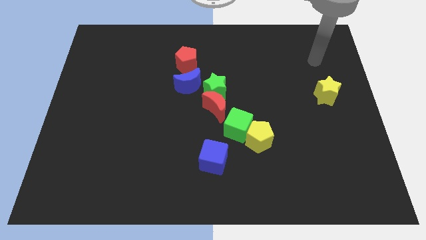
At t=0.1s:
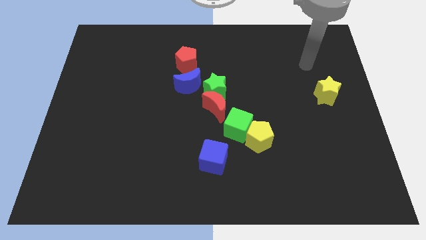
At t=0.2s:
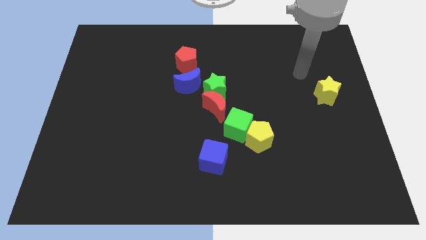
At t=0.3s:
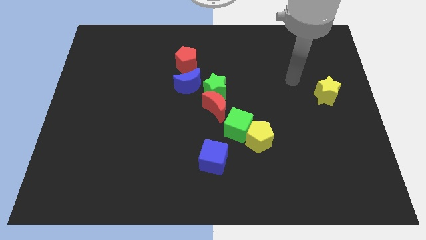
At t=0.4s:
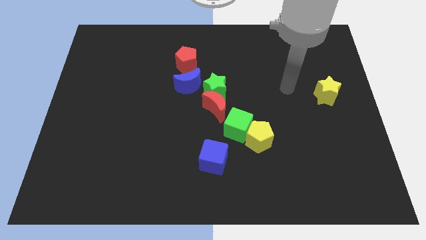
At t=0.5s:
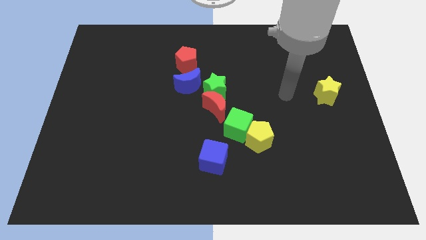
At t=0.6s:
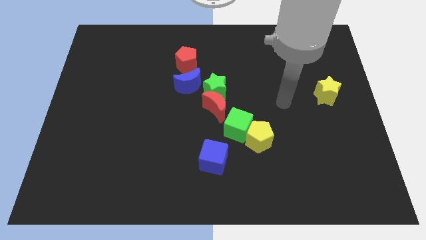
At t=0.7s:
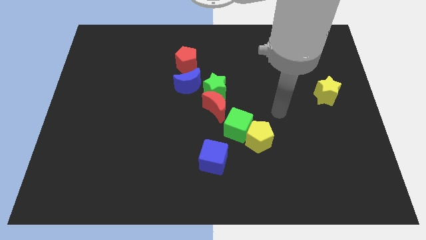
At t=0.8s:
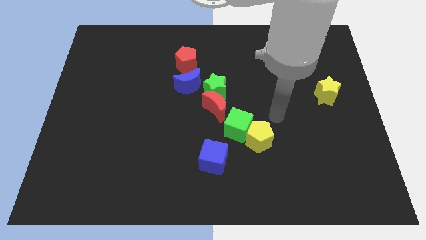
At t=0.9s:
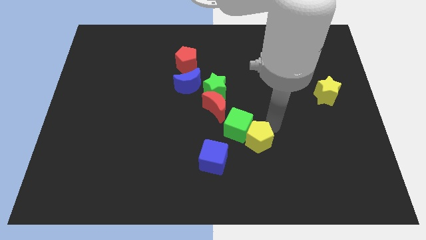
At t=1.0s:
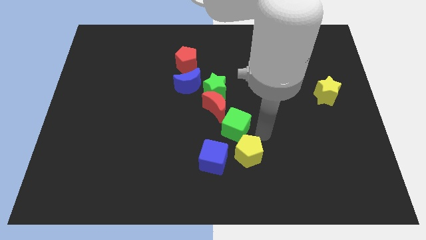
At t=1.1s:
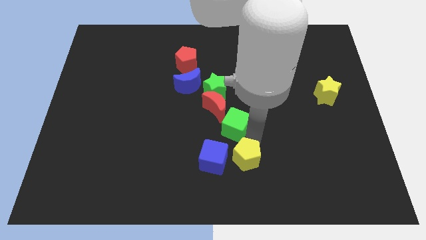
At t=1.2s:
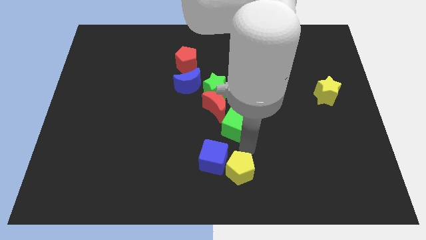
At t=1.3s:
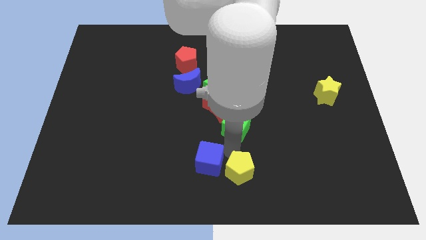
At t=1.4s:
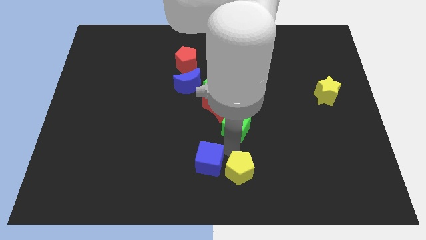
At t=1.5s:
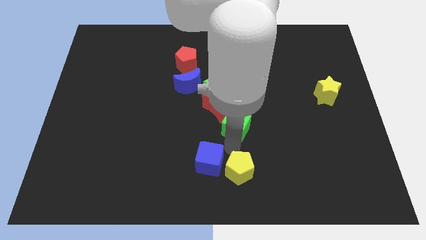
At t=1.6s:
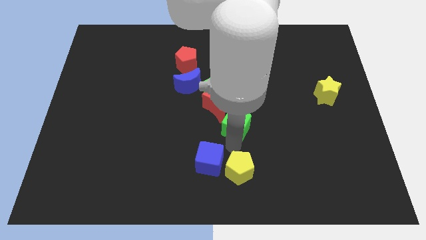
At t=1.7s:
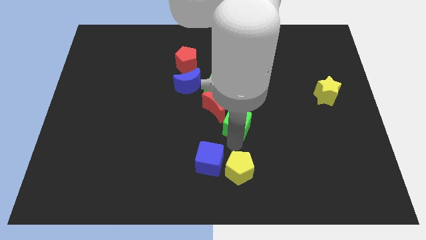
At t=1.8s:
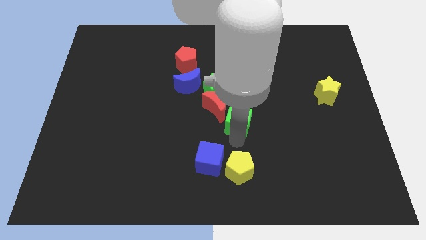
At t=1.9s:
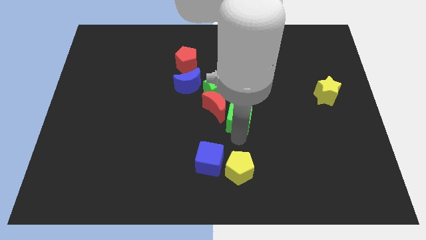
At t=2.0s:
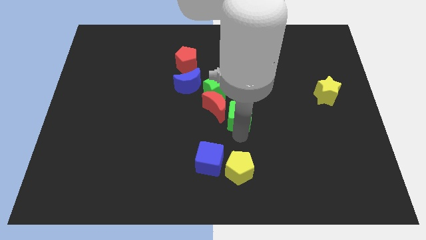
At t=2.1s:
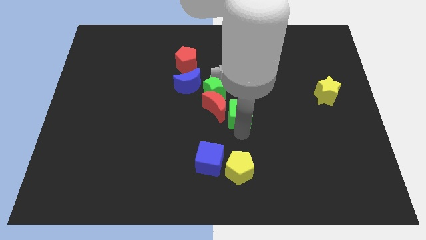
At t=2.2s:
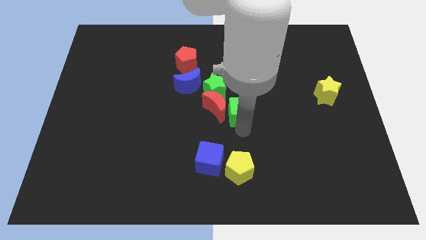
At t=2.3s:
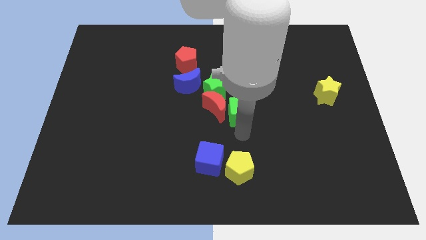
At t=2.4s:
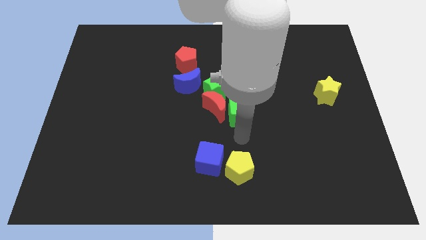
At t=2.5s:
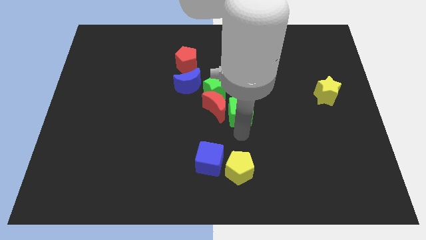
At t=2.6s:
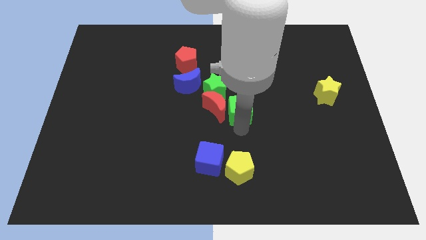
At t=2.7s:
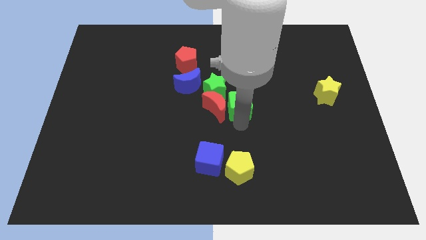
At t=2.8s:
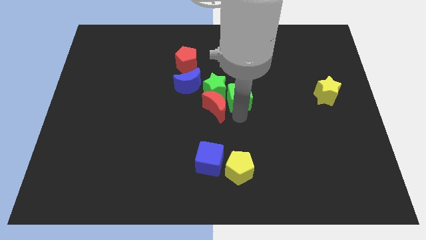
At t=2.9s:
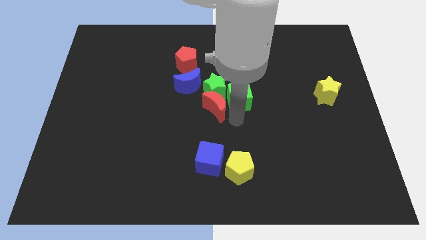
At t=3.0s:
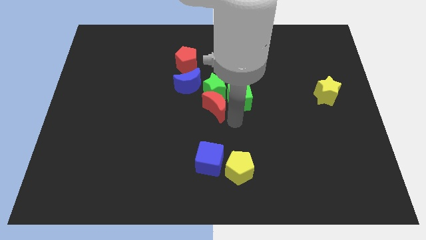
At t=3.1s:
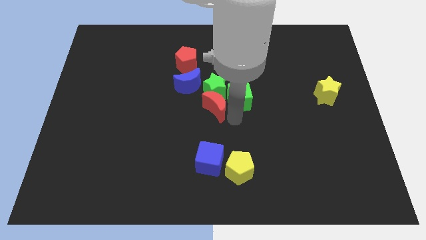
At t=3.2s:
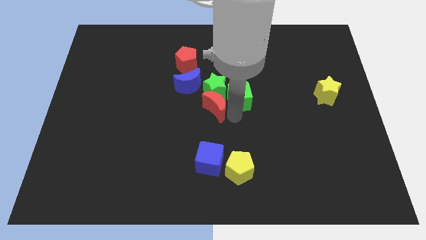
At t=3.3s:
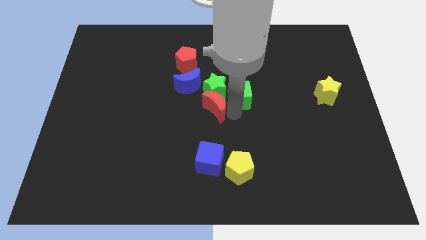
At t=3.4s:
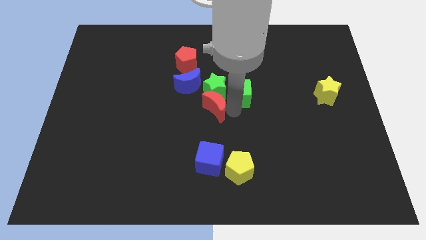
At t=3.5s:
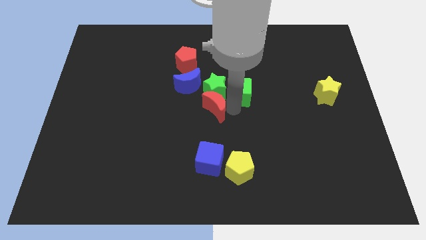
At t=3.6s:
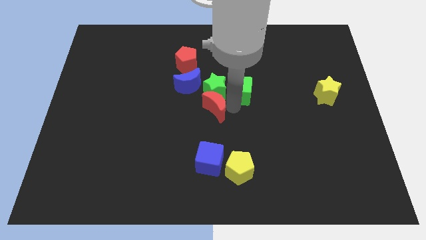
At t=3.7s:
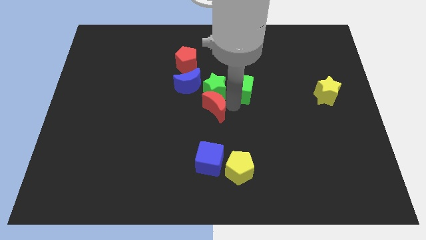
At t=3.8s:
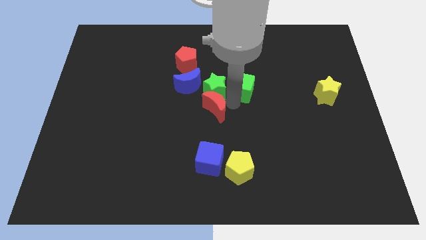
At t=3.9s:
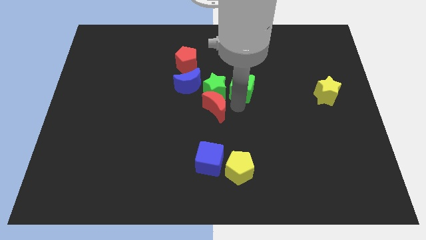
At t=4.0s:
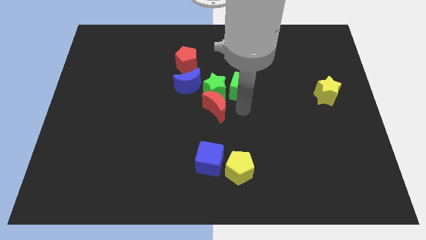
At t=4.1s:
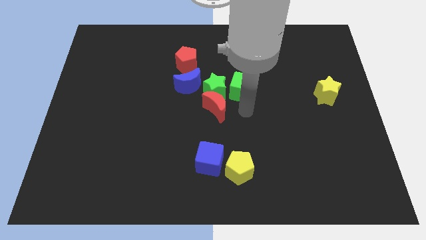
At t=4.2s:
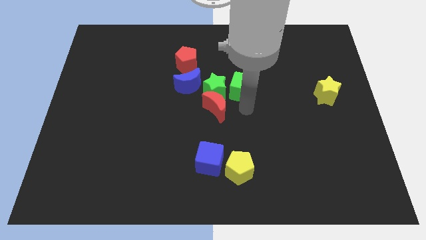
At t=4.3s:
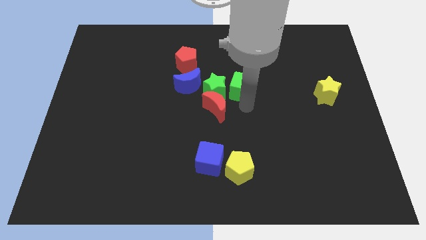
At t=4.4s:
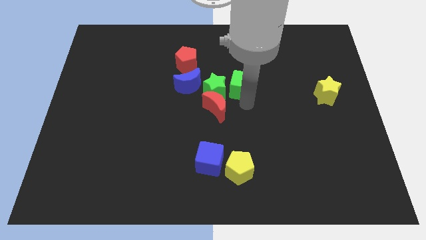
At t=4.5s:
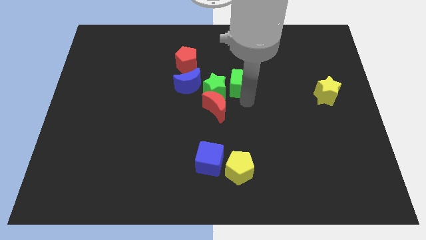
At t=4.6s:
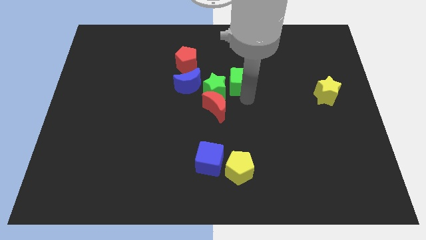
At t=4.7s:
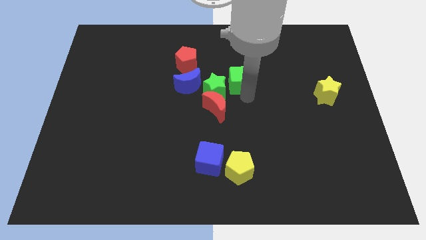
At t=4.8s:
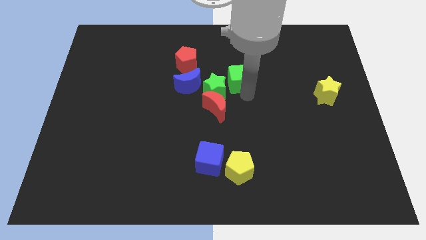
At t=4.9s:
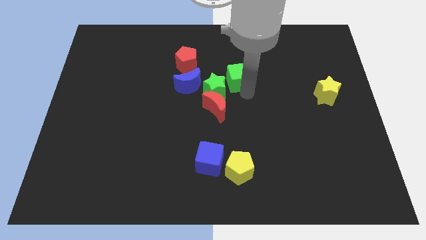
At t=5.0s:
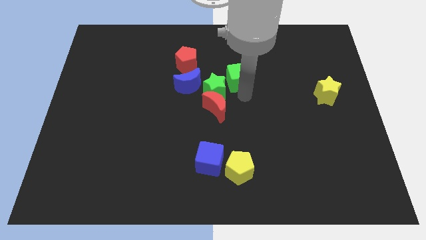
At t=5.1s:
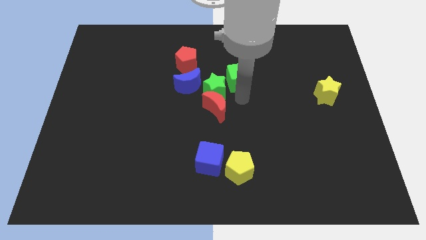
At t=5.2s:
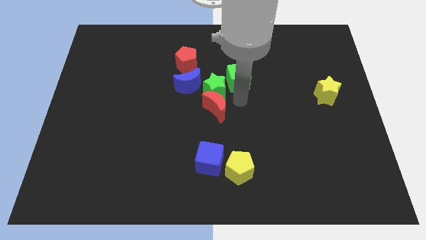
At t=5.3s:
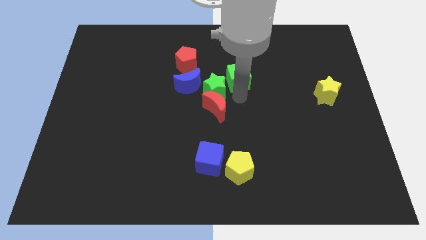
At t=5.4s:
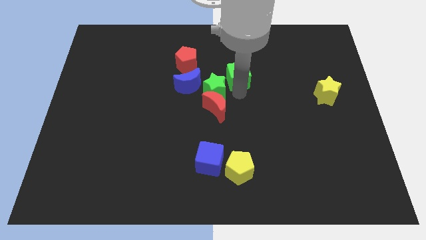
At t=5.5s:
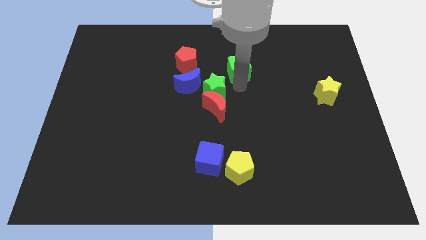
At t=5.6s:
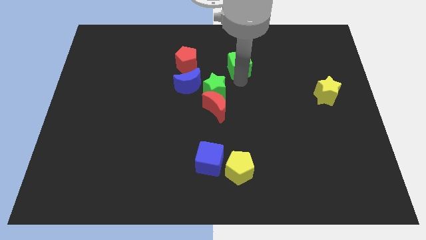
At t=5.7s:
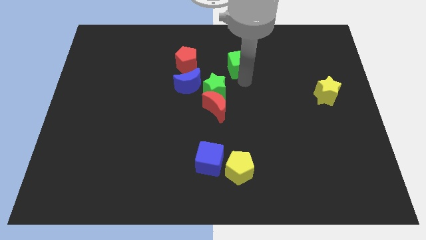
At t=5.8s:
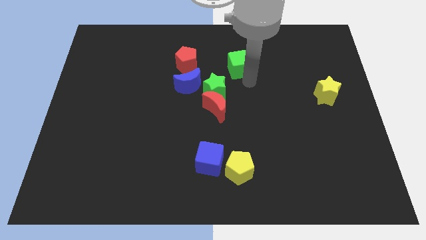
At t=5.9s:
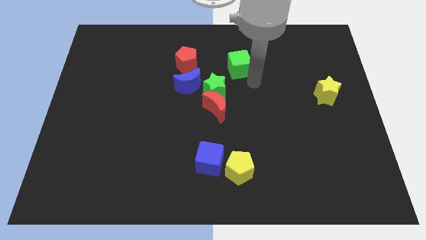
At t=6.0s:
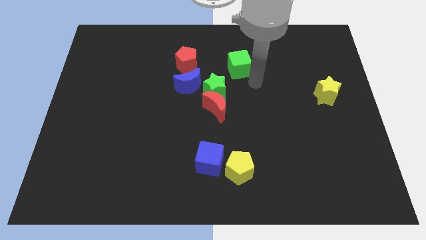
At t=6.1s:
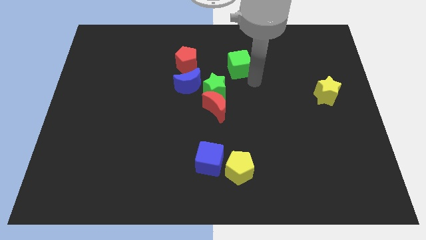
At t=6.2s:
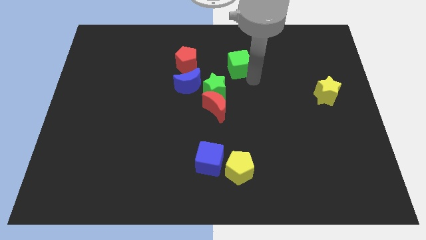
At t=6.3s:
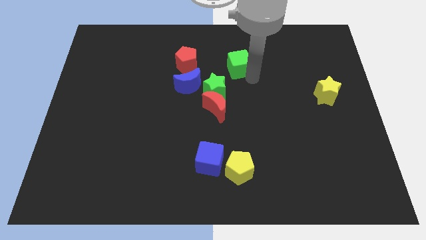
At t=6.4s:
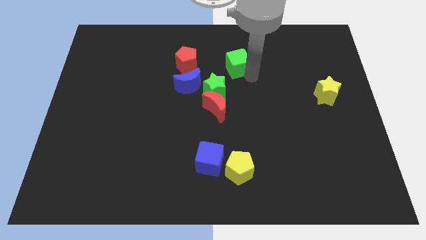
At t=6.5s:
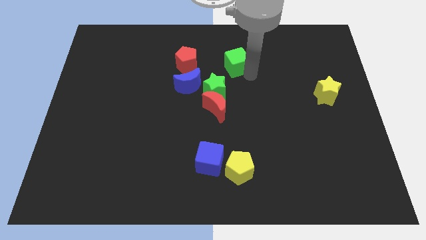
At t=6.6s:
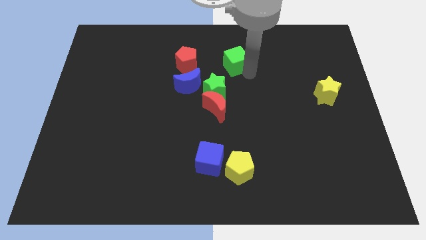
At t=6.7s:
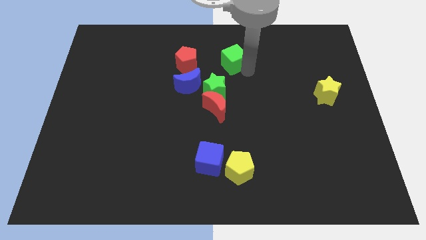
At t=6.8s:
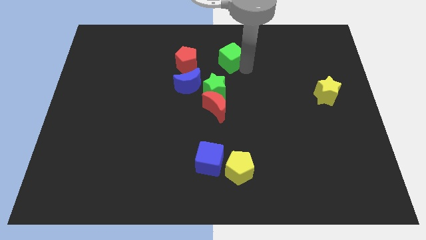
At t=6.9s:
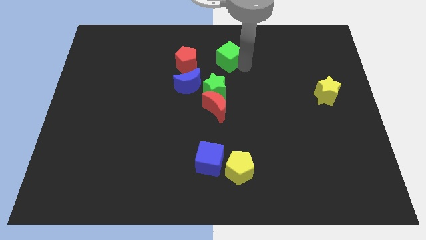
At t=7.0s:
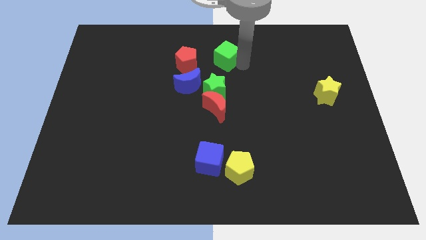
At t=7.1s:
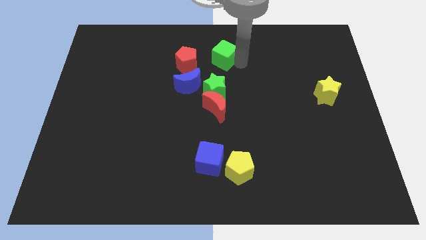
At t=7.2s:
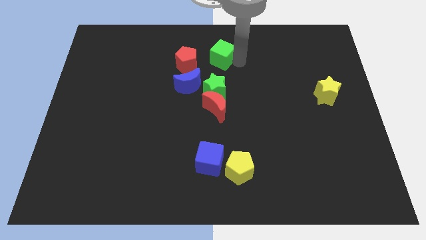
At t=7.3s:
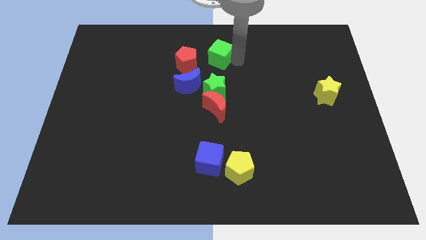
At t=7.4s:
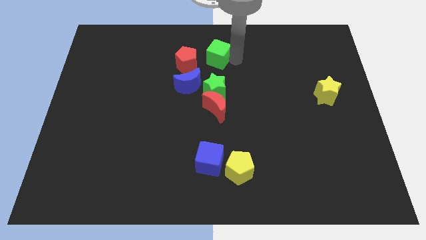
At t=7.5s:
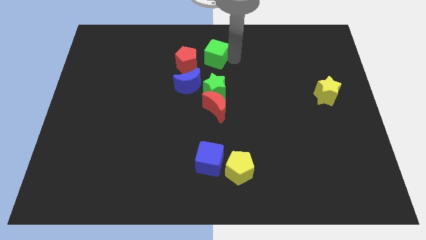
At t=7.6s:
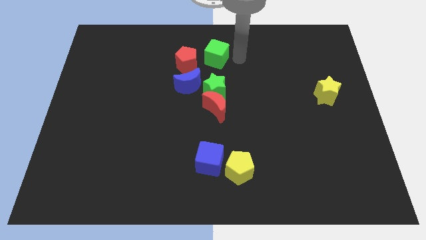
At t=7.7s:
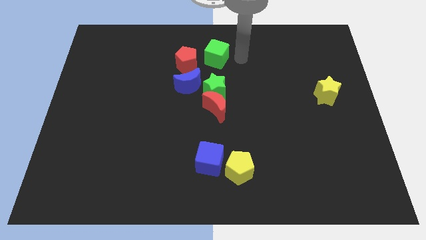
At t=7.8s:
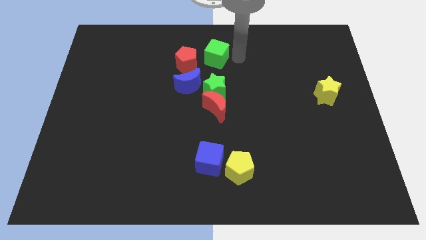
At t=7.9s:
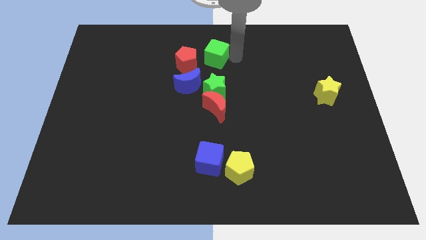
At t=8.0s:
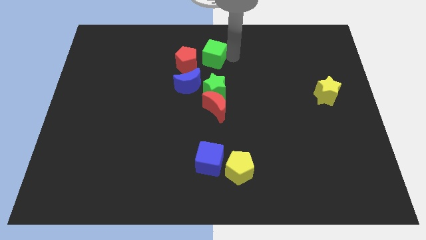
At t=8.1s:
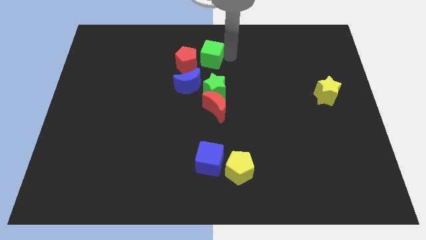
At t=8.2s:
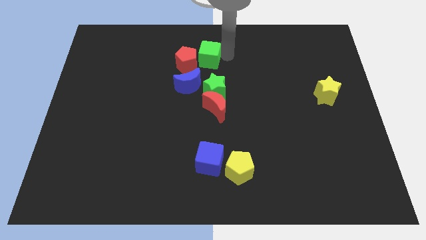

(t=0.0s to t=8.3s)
slide the green cube above the blue moon
